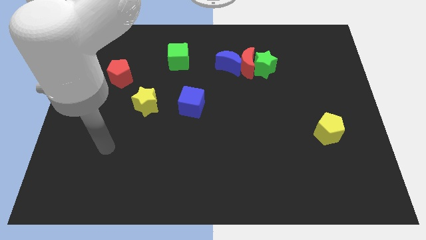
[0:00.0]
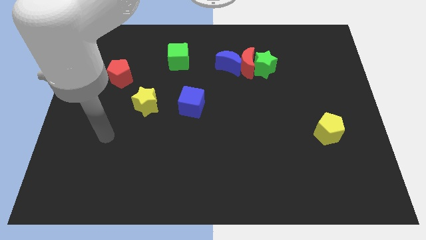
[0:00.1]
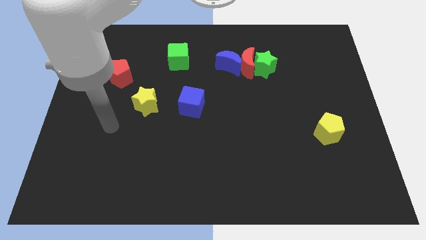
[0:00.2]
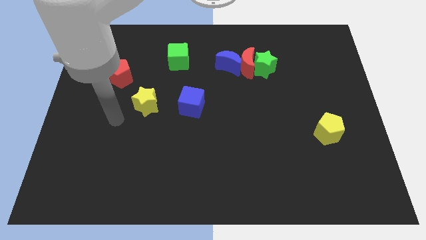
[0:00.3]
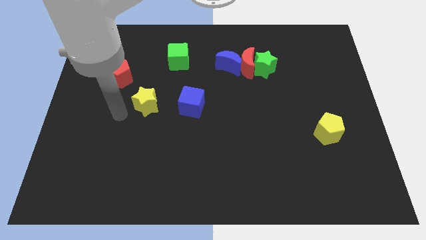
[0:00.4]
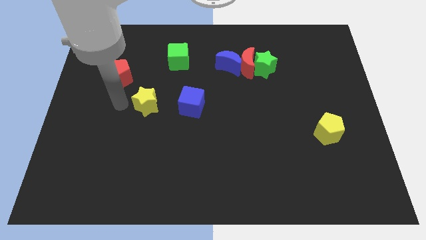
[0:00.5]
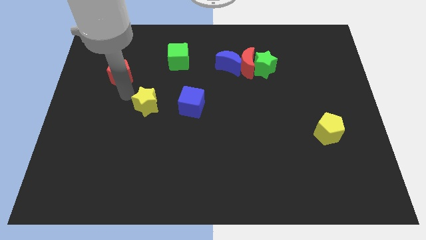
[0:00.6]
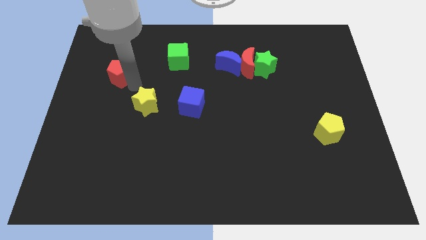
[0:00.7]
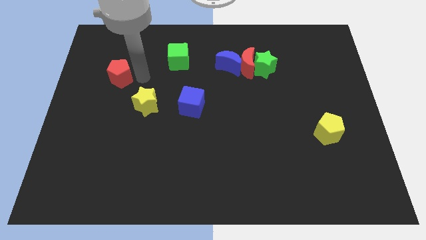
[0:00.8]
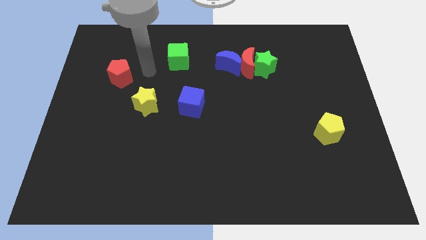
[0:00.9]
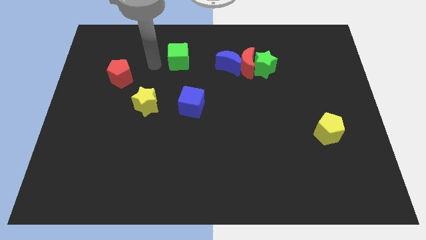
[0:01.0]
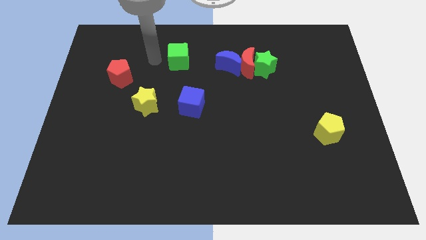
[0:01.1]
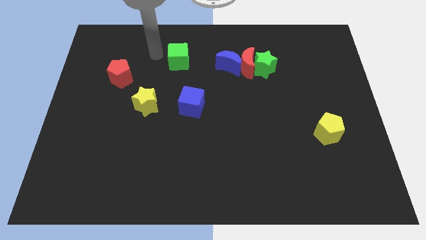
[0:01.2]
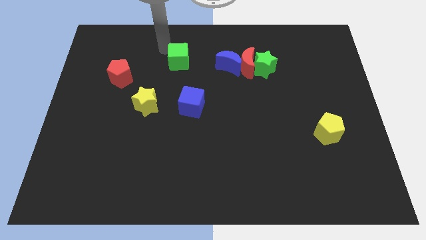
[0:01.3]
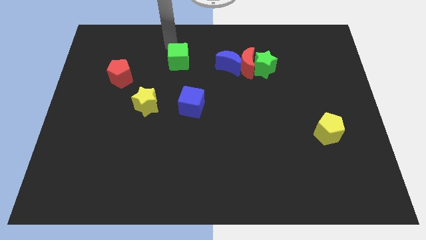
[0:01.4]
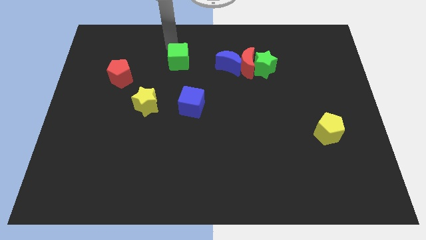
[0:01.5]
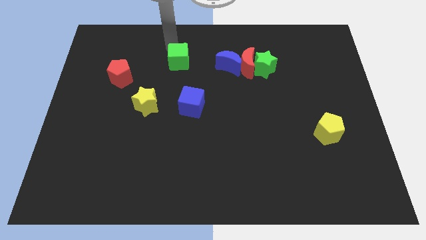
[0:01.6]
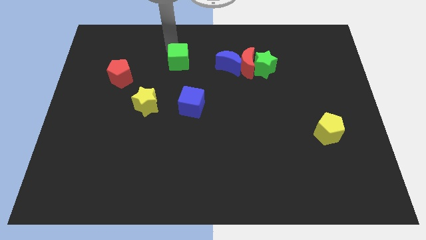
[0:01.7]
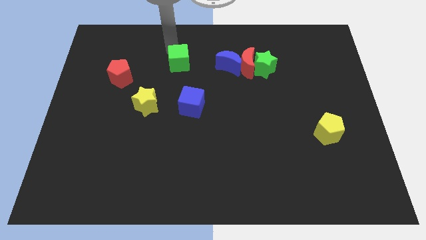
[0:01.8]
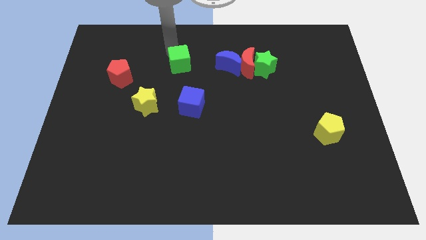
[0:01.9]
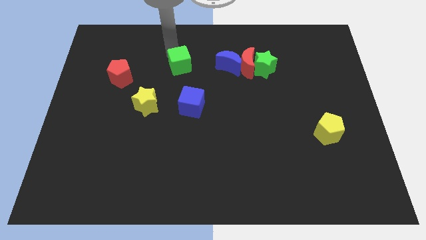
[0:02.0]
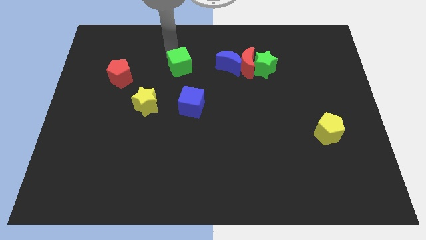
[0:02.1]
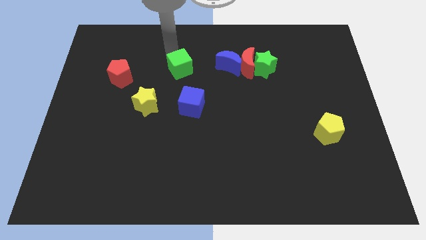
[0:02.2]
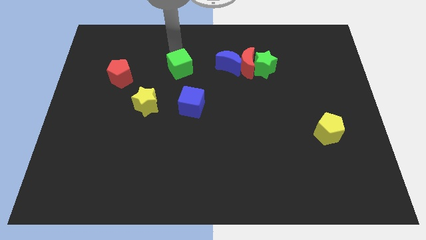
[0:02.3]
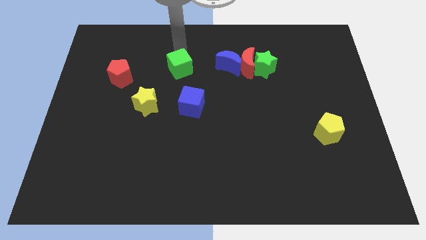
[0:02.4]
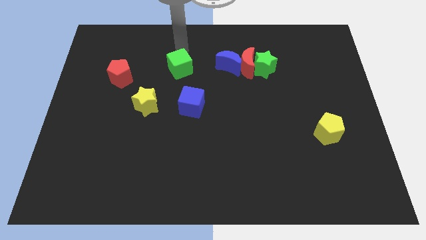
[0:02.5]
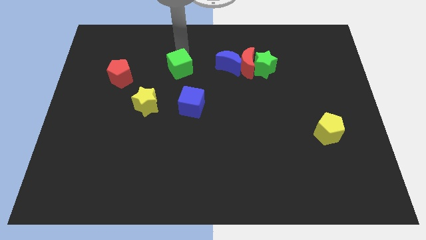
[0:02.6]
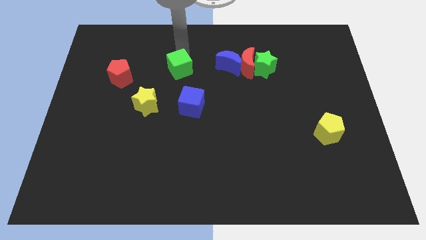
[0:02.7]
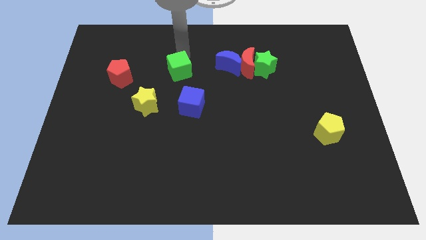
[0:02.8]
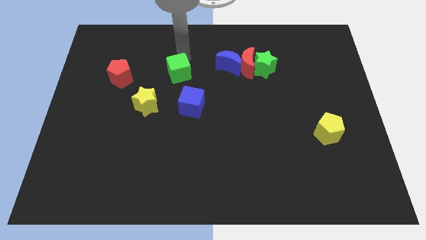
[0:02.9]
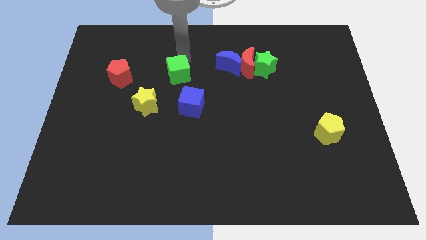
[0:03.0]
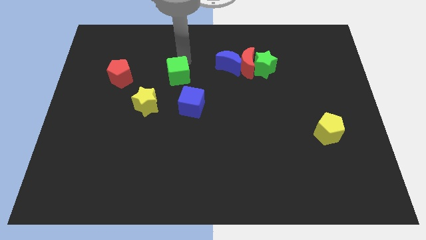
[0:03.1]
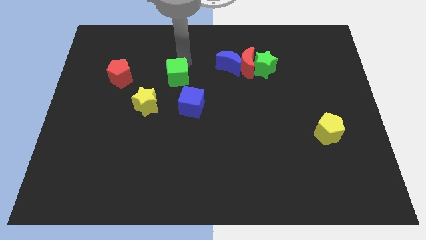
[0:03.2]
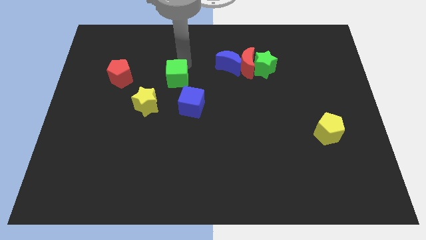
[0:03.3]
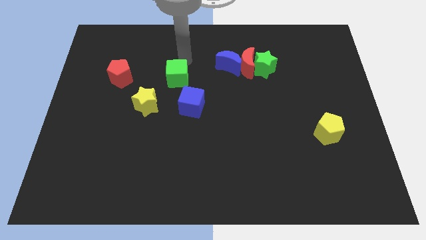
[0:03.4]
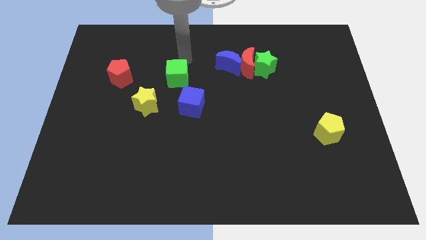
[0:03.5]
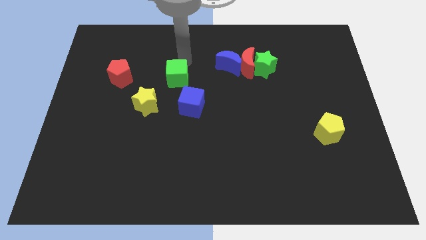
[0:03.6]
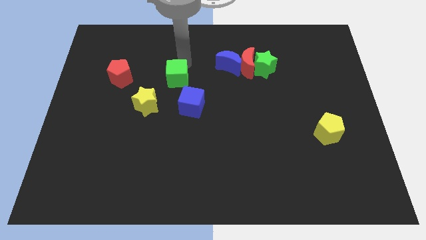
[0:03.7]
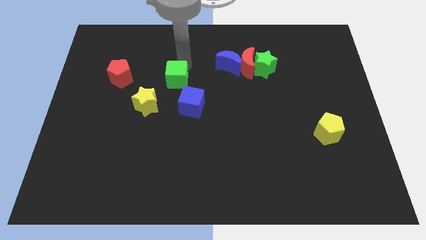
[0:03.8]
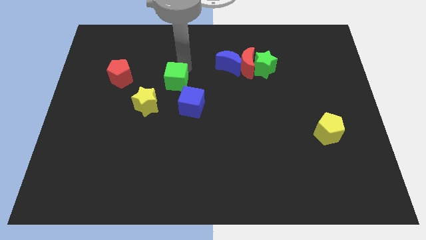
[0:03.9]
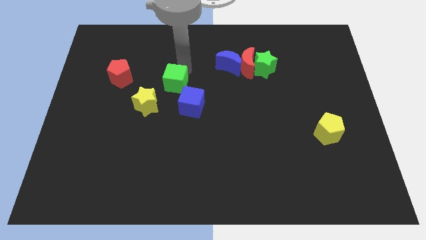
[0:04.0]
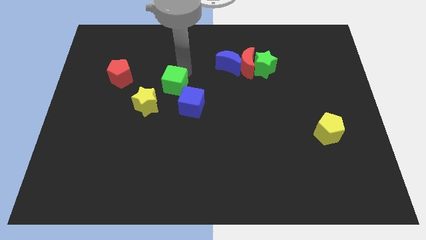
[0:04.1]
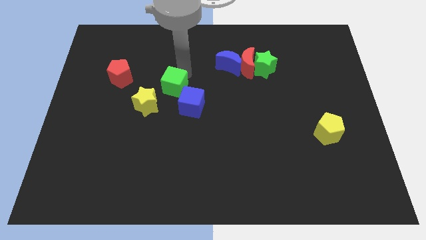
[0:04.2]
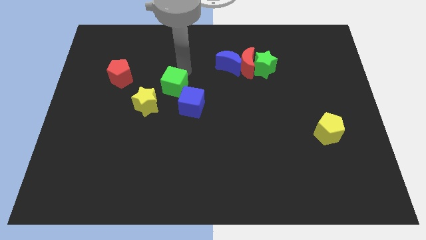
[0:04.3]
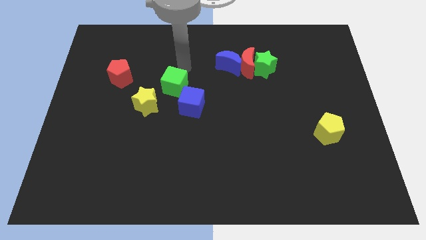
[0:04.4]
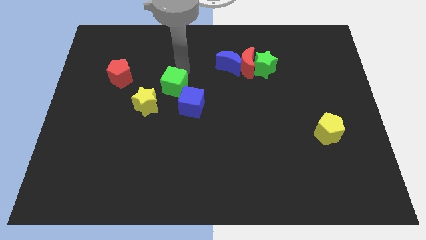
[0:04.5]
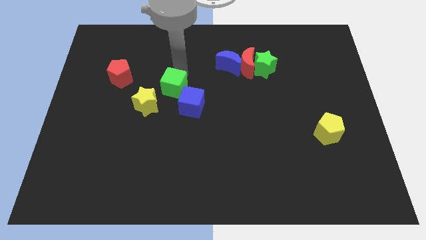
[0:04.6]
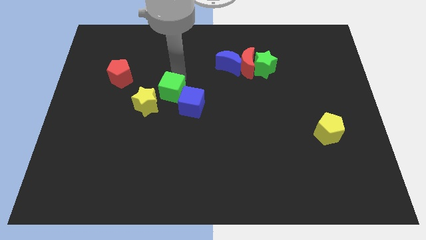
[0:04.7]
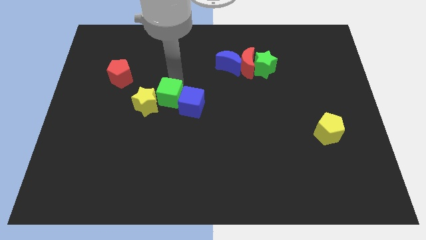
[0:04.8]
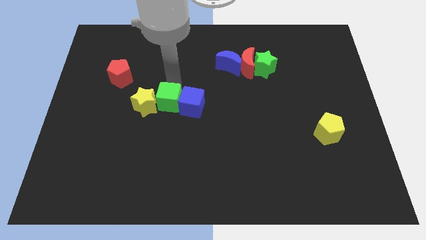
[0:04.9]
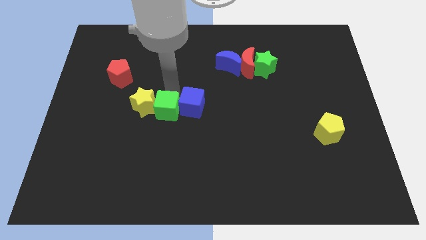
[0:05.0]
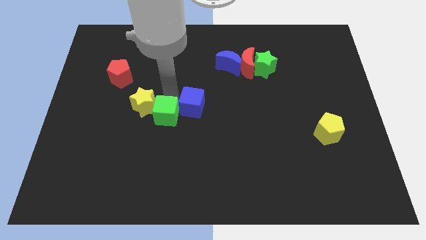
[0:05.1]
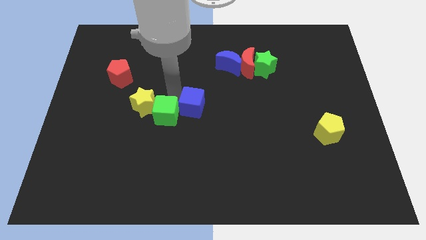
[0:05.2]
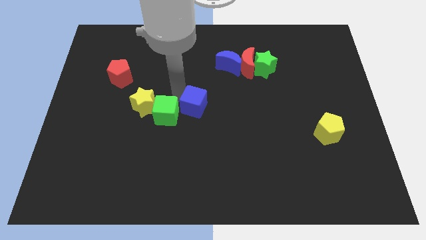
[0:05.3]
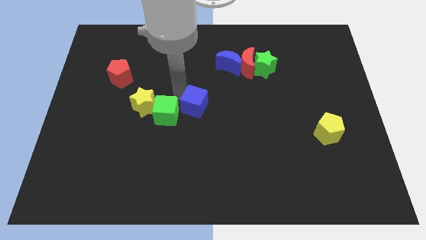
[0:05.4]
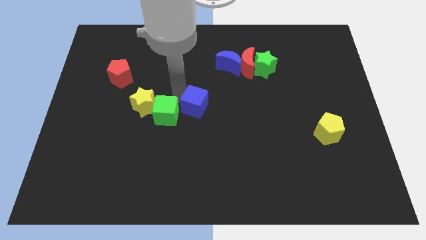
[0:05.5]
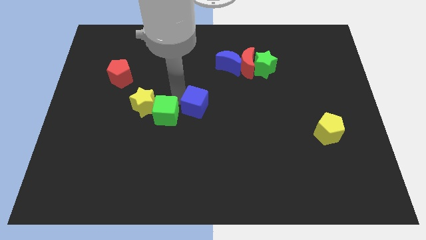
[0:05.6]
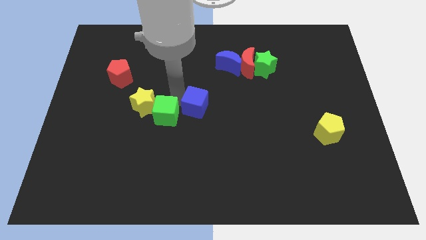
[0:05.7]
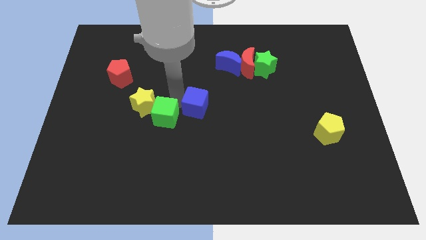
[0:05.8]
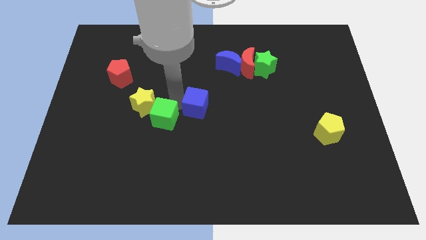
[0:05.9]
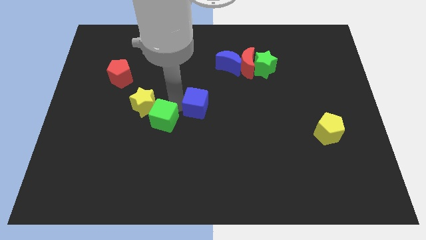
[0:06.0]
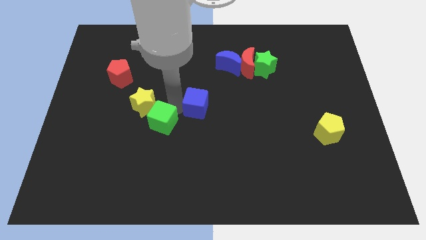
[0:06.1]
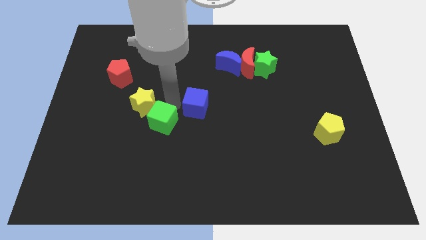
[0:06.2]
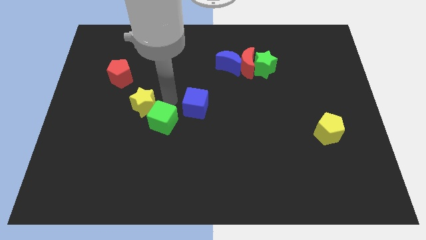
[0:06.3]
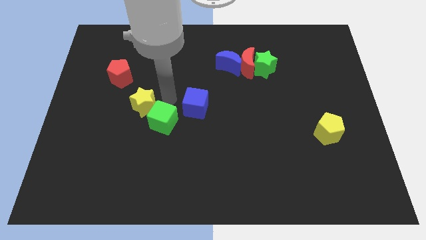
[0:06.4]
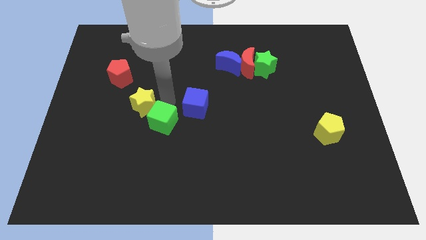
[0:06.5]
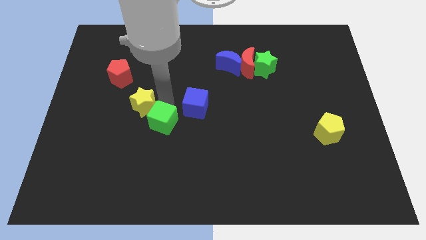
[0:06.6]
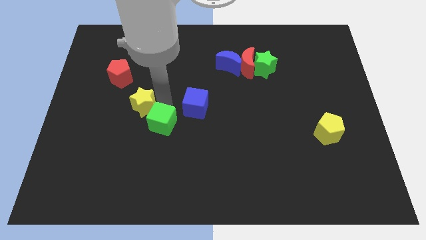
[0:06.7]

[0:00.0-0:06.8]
push the green cube down

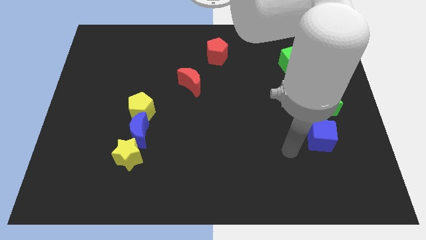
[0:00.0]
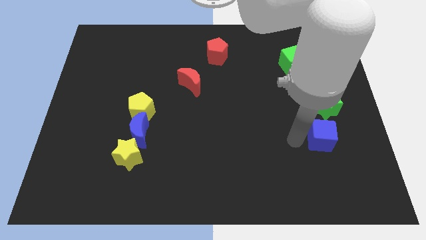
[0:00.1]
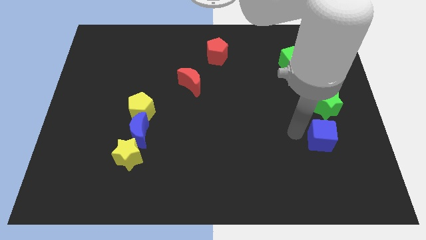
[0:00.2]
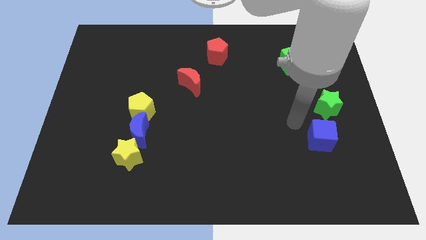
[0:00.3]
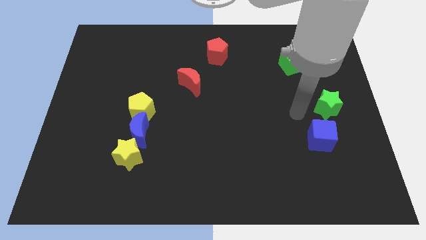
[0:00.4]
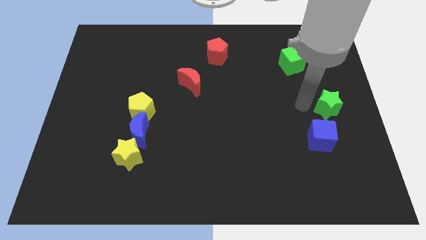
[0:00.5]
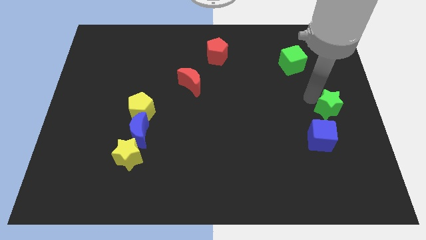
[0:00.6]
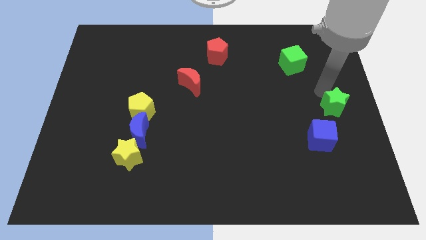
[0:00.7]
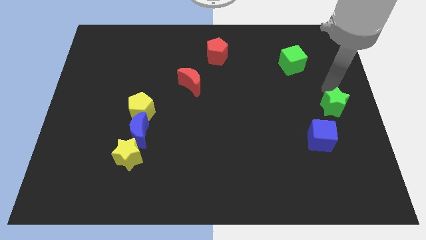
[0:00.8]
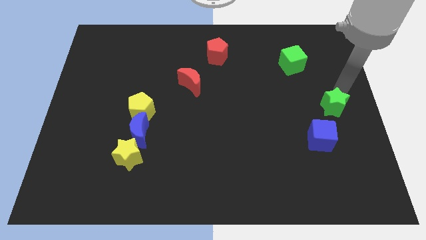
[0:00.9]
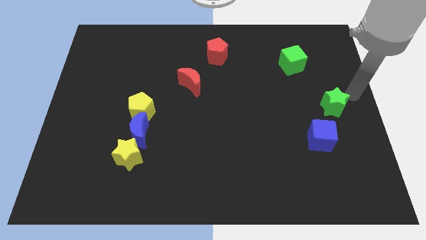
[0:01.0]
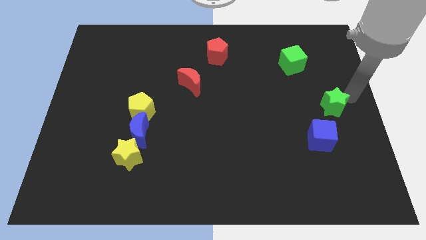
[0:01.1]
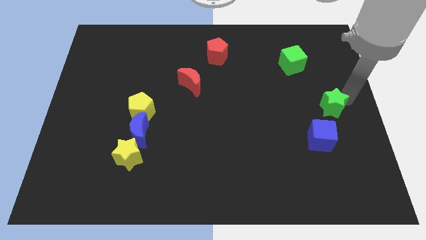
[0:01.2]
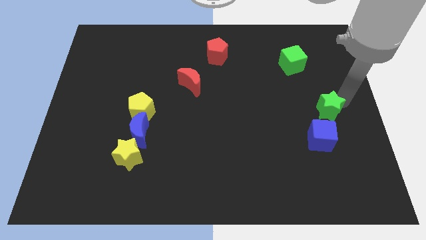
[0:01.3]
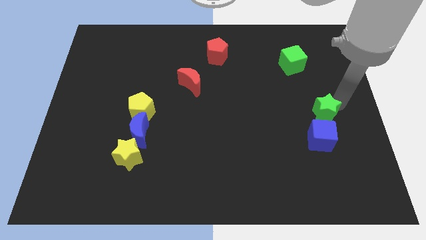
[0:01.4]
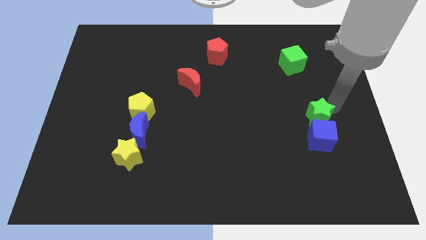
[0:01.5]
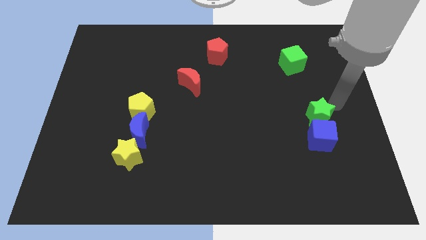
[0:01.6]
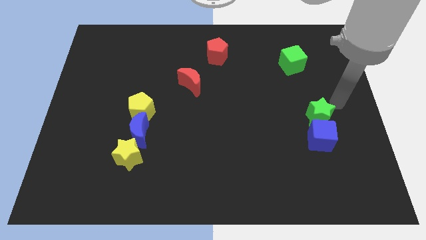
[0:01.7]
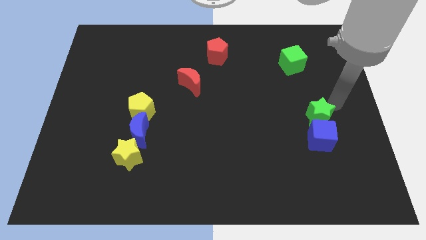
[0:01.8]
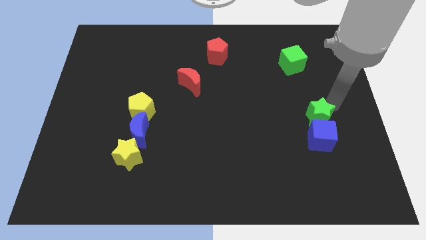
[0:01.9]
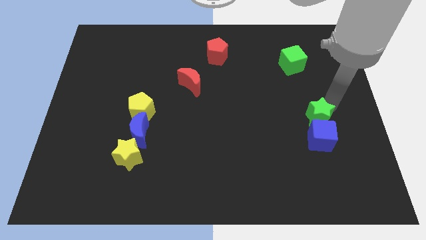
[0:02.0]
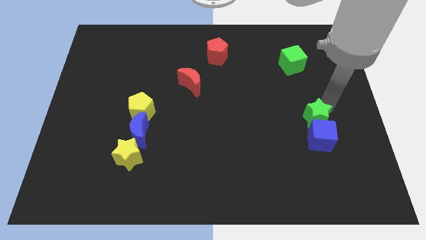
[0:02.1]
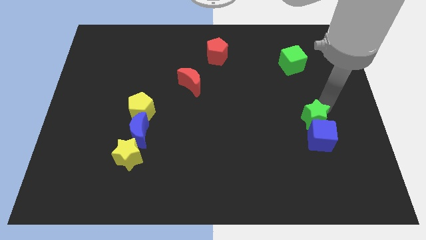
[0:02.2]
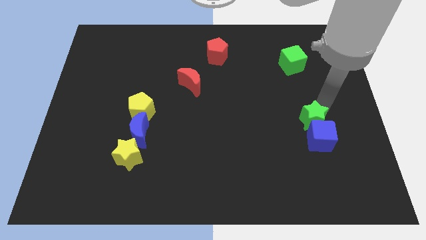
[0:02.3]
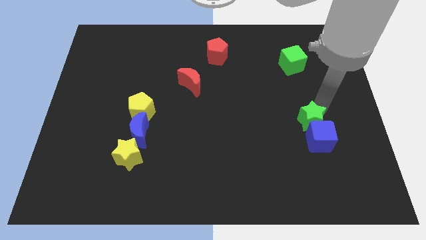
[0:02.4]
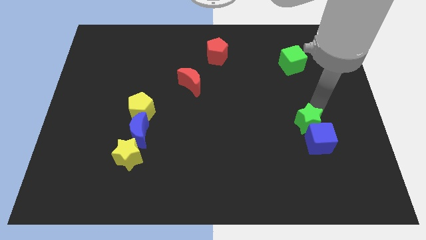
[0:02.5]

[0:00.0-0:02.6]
slide the green star downwards and then to the left somewhat
